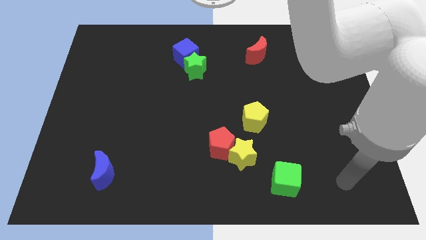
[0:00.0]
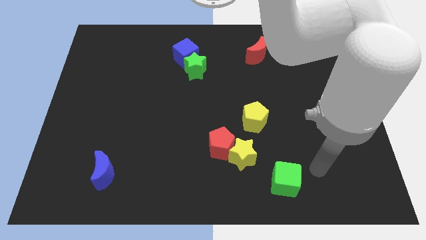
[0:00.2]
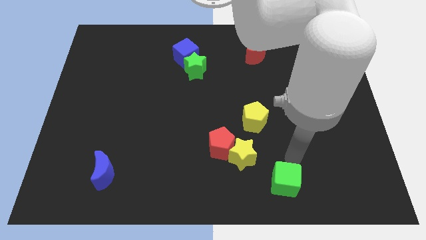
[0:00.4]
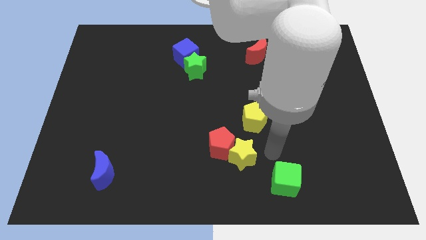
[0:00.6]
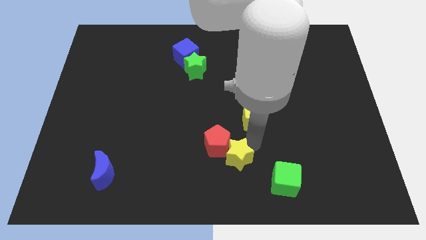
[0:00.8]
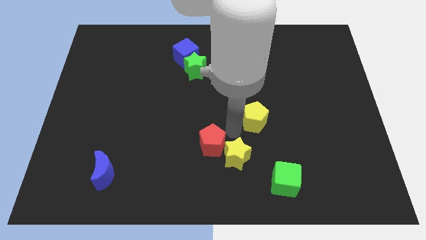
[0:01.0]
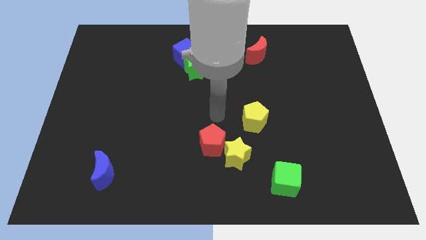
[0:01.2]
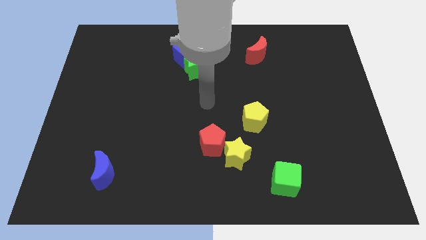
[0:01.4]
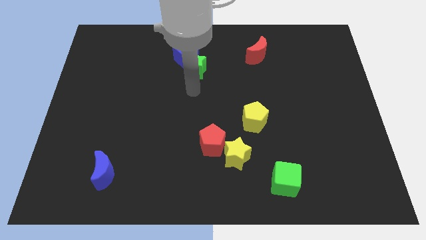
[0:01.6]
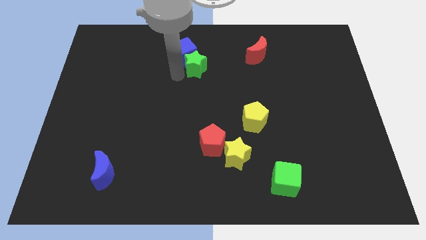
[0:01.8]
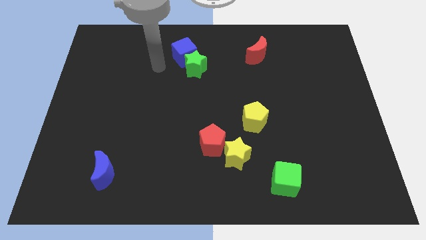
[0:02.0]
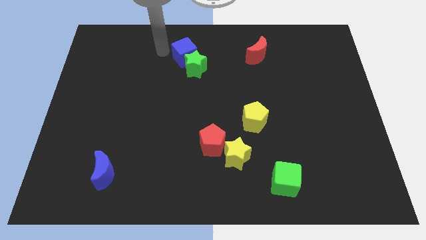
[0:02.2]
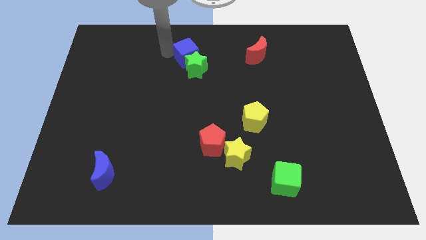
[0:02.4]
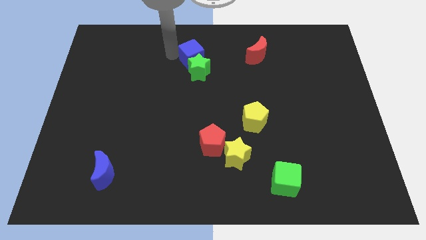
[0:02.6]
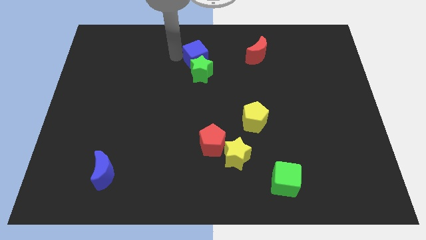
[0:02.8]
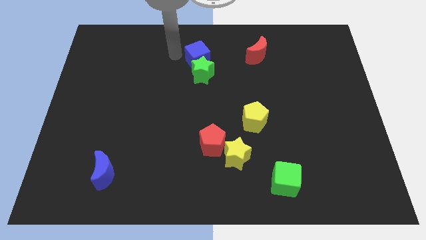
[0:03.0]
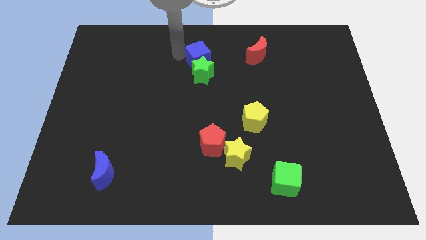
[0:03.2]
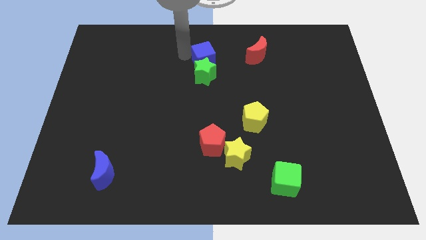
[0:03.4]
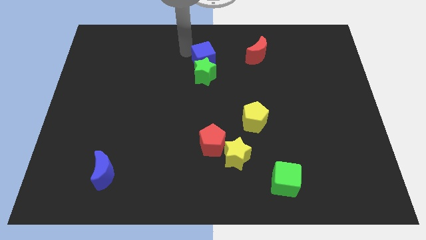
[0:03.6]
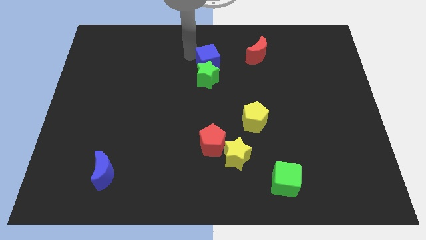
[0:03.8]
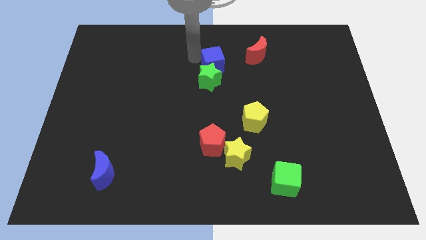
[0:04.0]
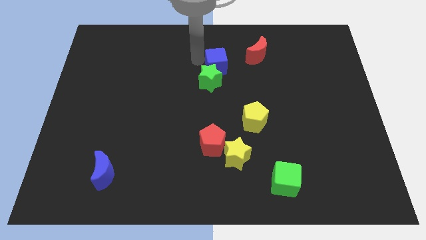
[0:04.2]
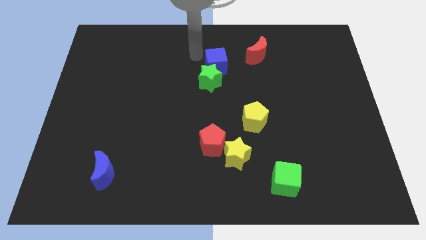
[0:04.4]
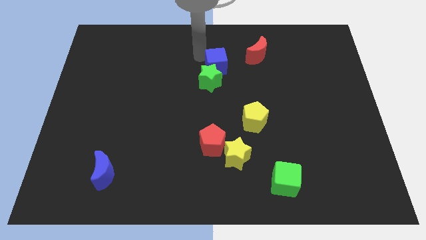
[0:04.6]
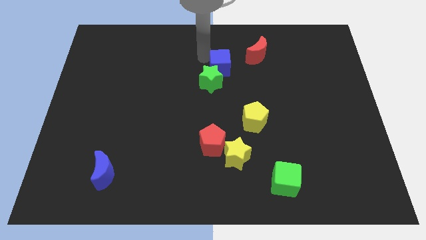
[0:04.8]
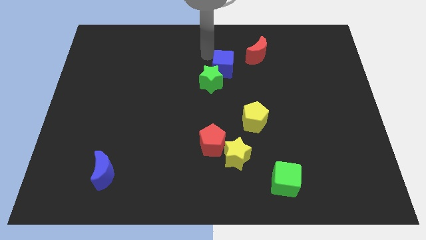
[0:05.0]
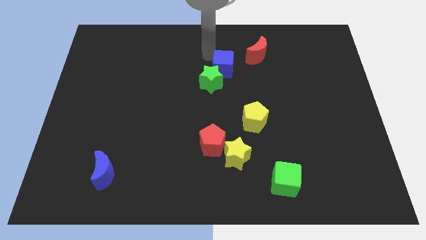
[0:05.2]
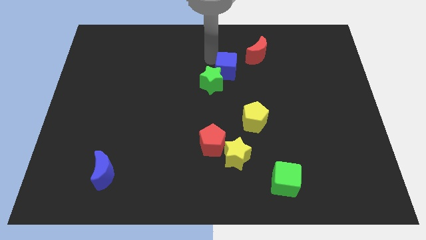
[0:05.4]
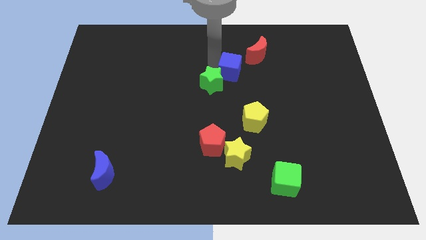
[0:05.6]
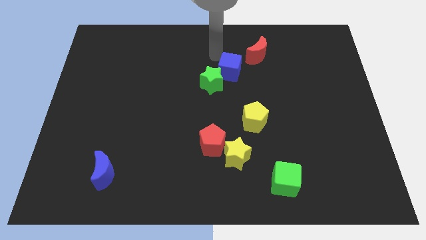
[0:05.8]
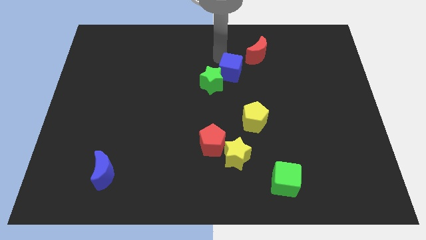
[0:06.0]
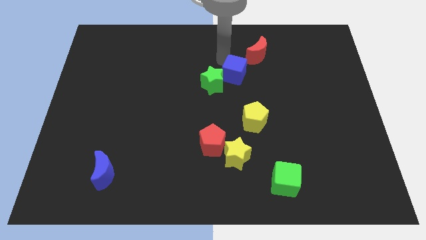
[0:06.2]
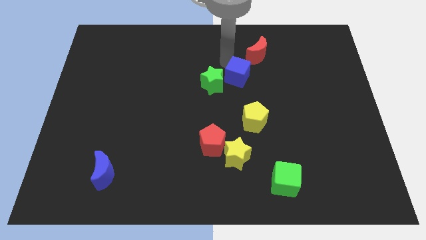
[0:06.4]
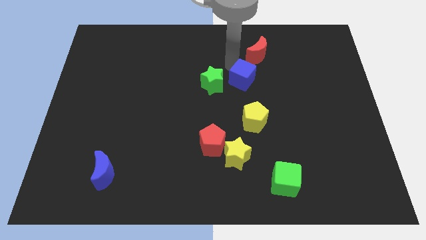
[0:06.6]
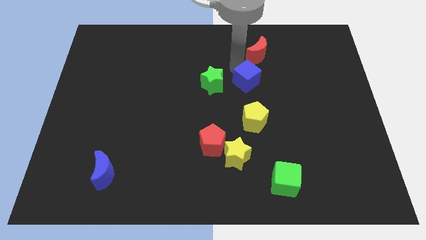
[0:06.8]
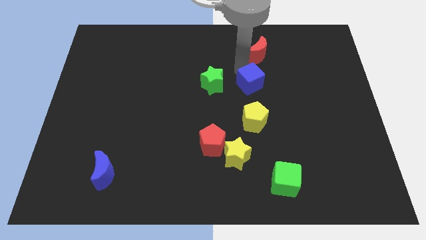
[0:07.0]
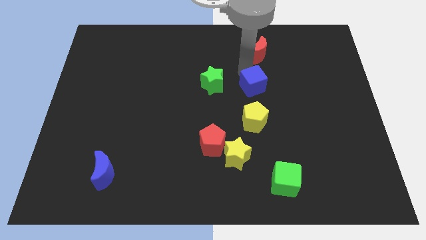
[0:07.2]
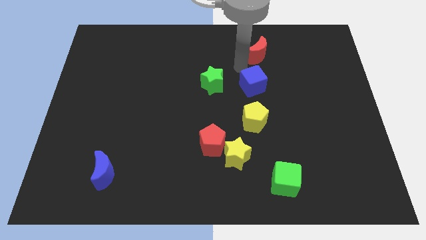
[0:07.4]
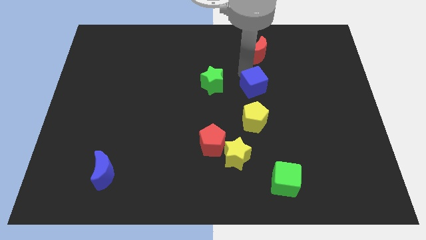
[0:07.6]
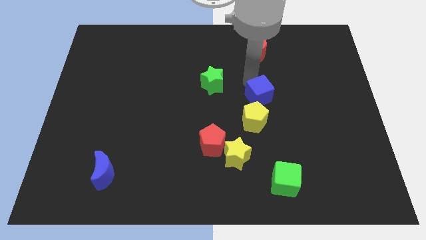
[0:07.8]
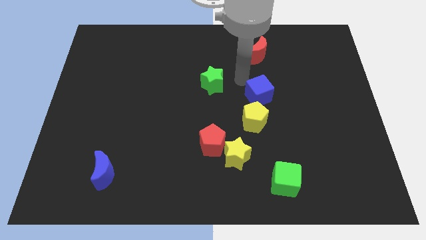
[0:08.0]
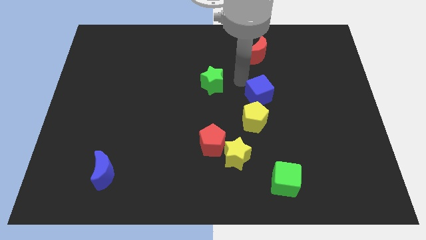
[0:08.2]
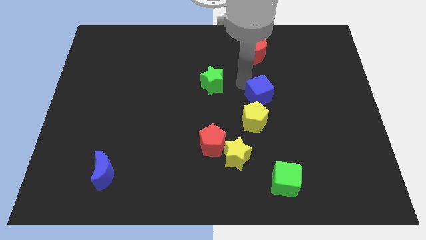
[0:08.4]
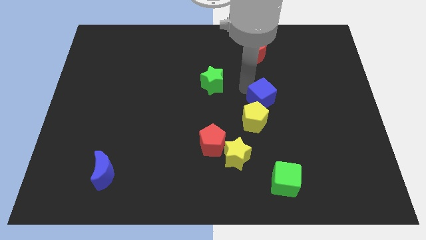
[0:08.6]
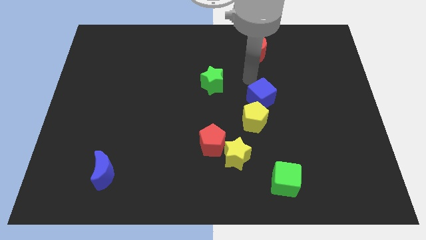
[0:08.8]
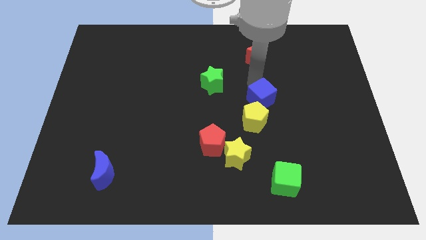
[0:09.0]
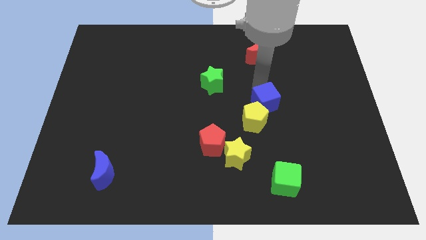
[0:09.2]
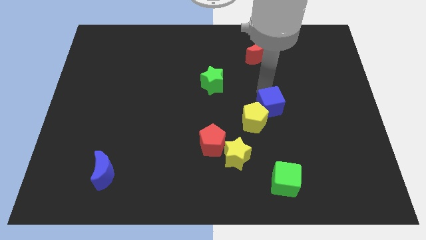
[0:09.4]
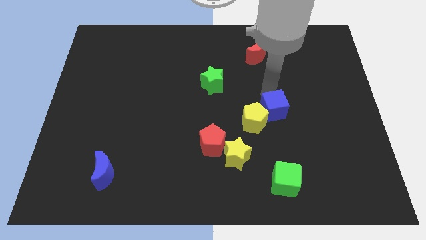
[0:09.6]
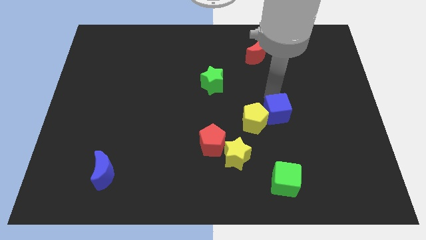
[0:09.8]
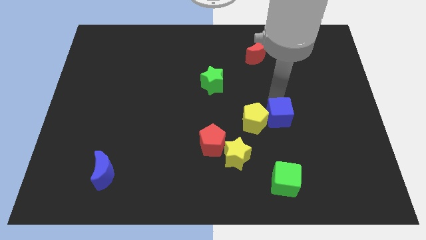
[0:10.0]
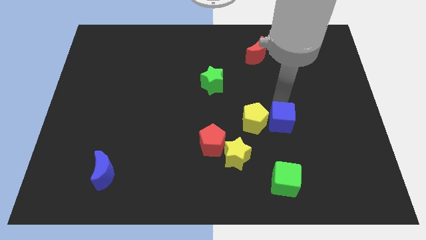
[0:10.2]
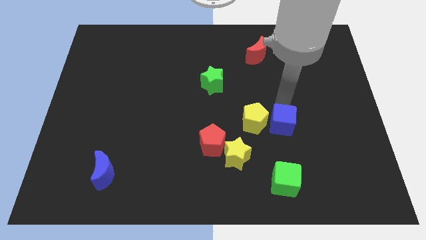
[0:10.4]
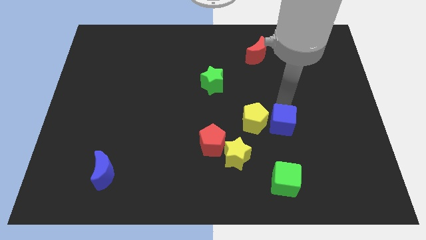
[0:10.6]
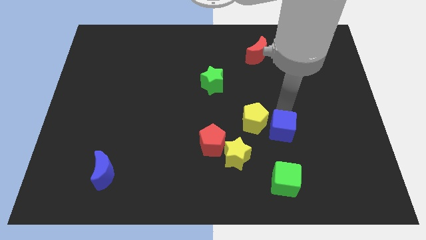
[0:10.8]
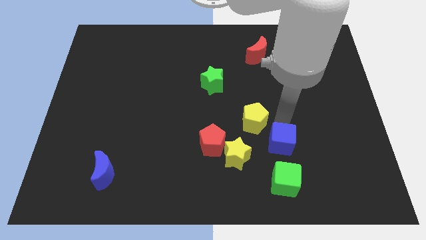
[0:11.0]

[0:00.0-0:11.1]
put the blue cube to the right side of the yellow star

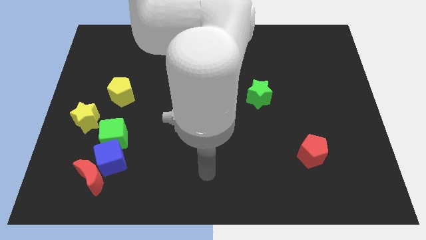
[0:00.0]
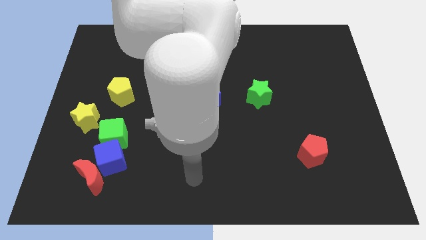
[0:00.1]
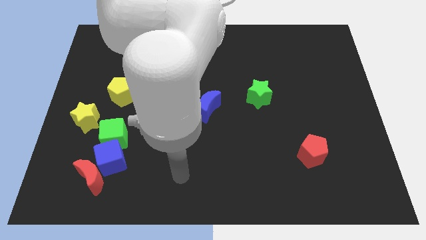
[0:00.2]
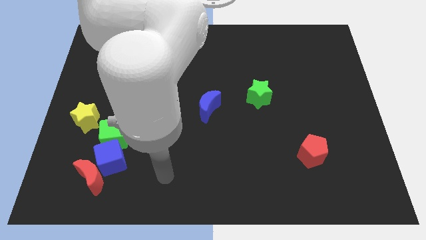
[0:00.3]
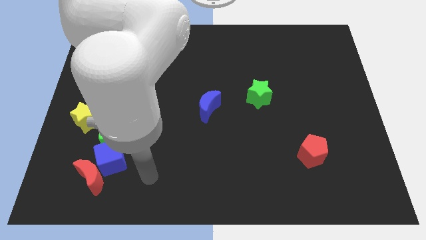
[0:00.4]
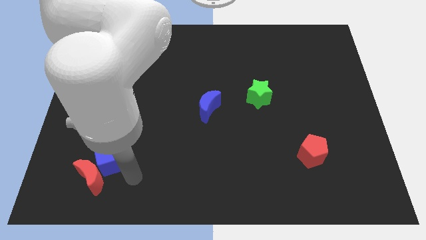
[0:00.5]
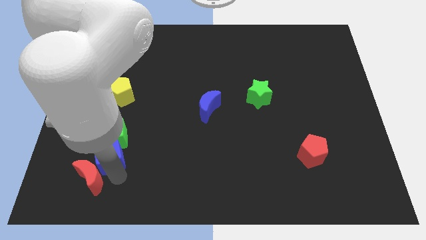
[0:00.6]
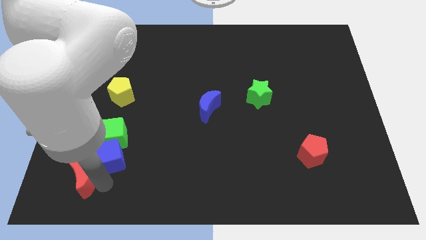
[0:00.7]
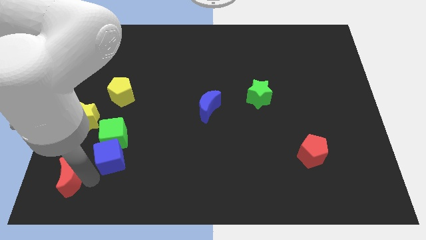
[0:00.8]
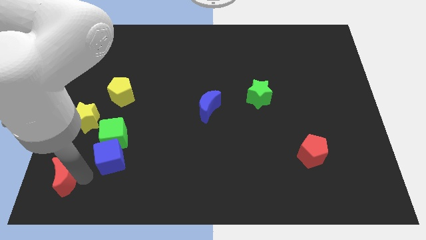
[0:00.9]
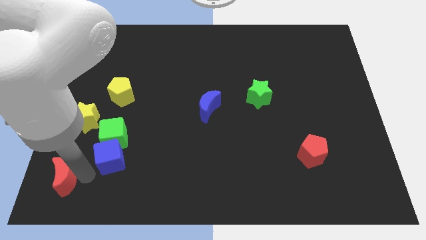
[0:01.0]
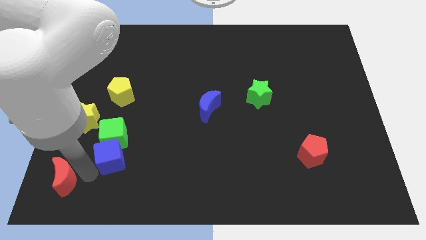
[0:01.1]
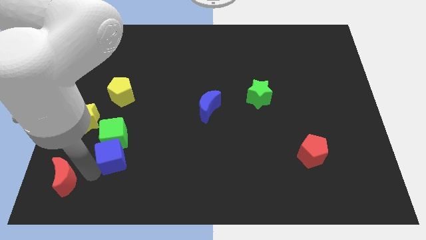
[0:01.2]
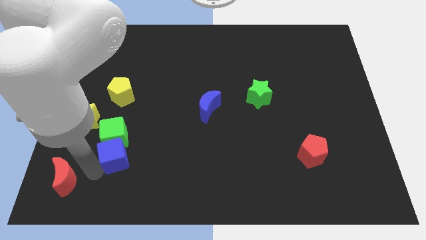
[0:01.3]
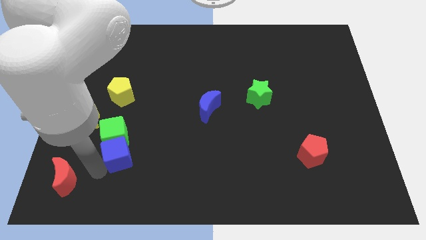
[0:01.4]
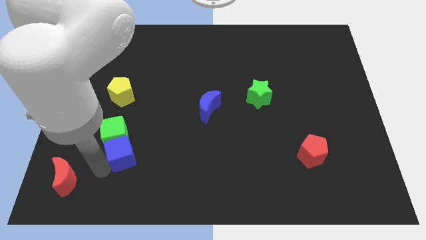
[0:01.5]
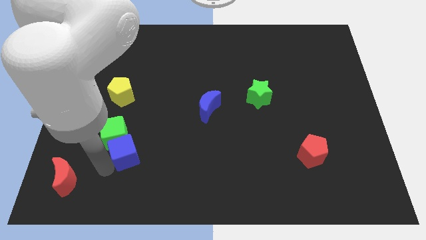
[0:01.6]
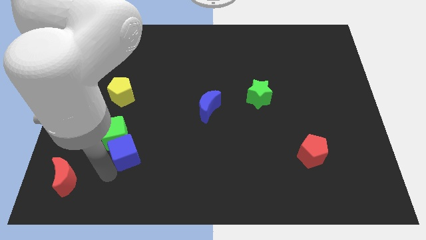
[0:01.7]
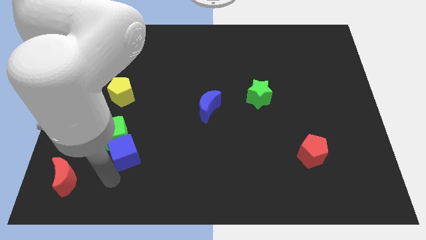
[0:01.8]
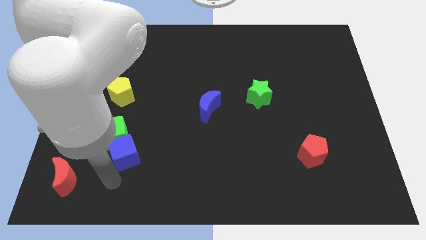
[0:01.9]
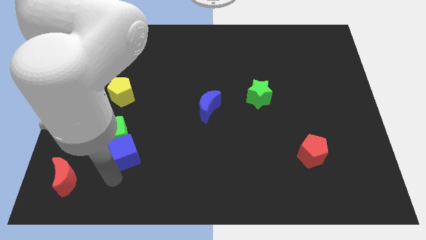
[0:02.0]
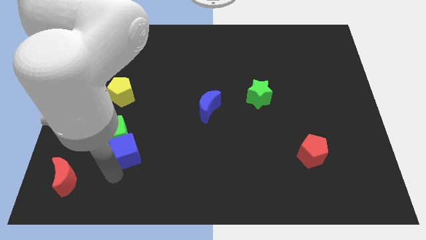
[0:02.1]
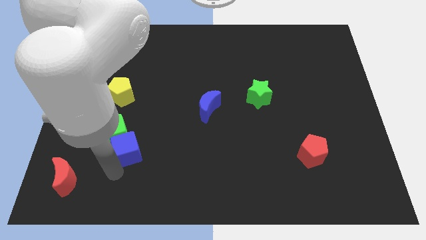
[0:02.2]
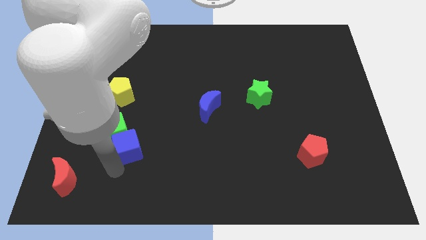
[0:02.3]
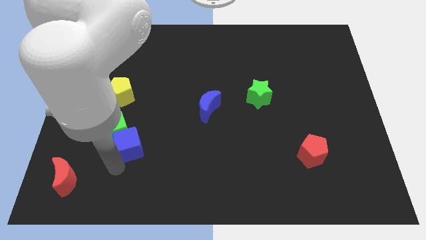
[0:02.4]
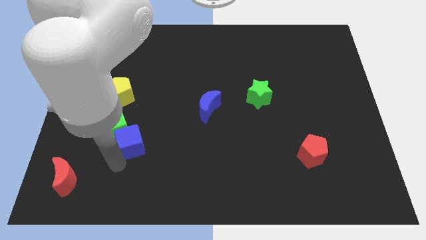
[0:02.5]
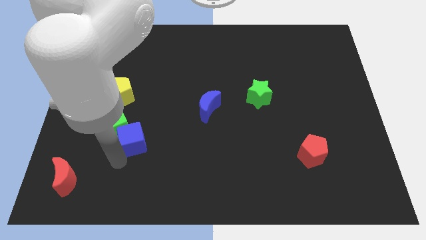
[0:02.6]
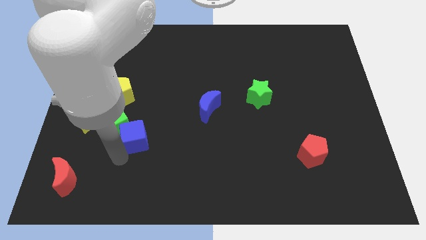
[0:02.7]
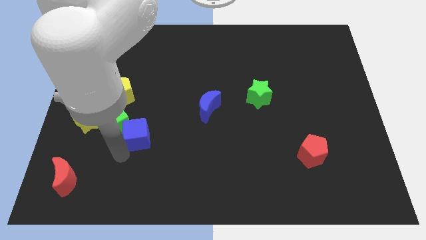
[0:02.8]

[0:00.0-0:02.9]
put the blue cube to the right of the yellow star
